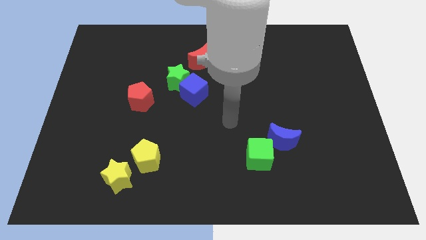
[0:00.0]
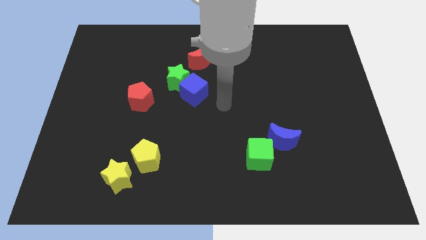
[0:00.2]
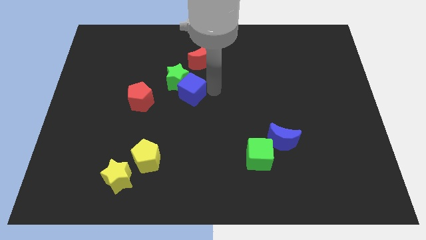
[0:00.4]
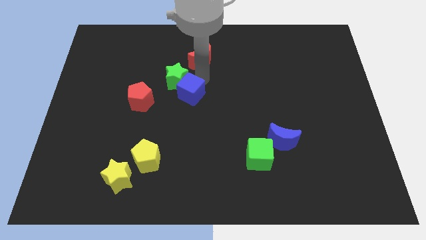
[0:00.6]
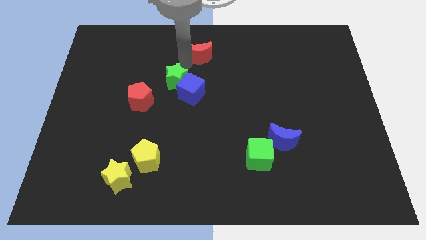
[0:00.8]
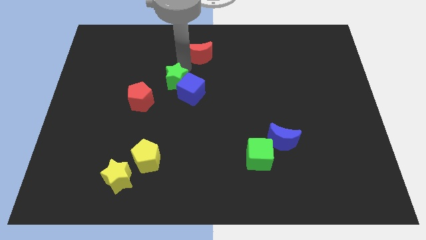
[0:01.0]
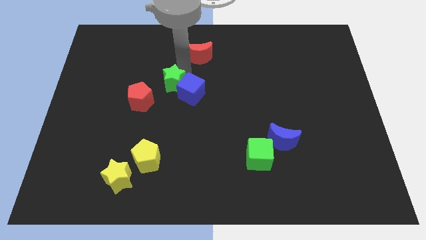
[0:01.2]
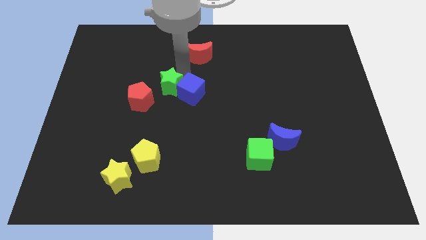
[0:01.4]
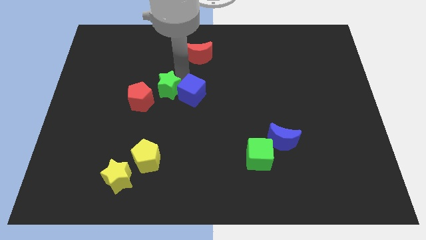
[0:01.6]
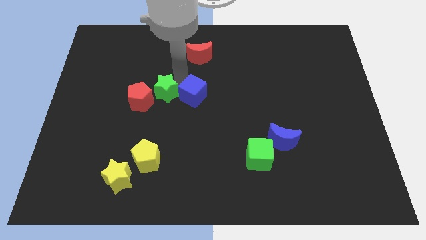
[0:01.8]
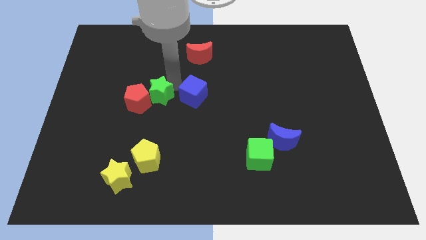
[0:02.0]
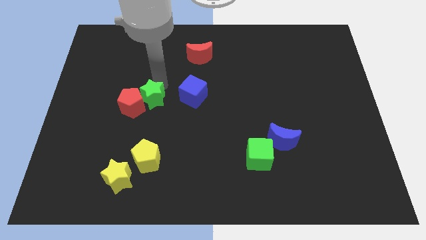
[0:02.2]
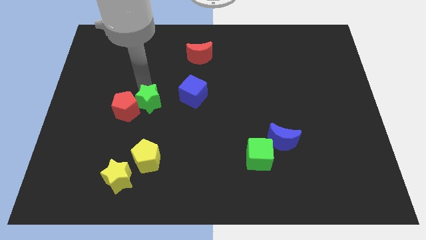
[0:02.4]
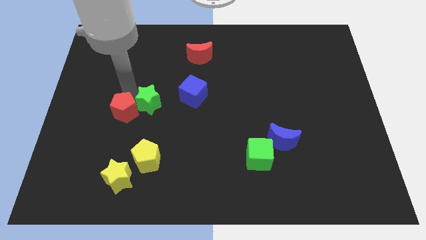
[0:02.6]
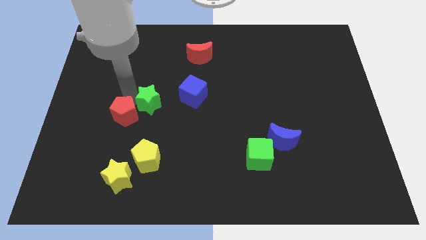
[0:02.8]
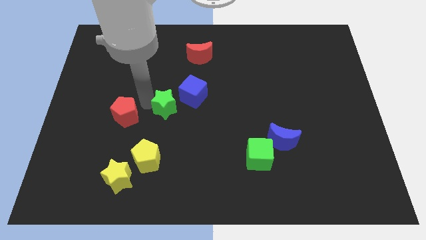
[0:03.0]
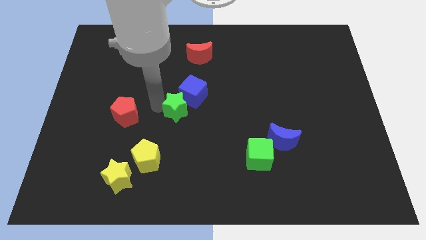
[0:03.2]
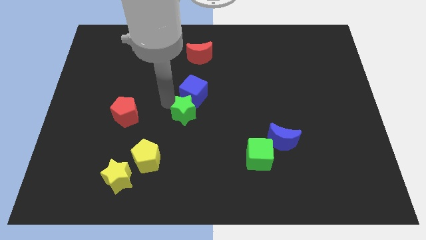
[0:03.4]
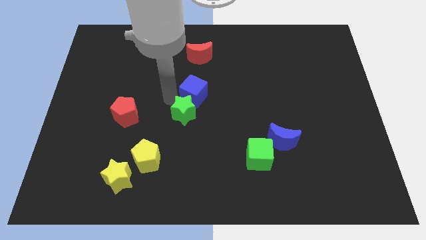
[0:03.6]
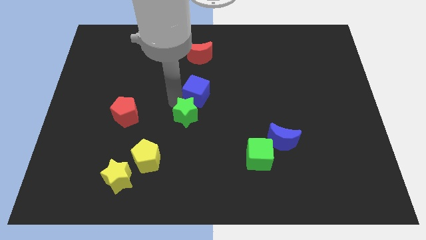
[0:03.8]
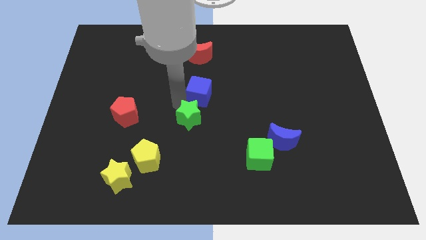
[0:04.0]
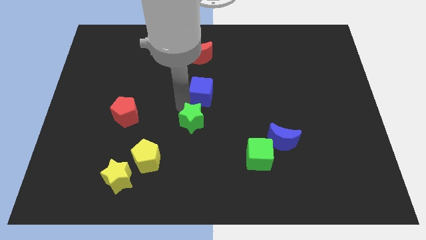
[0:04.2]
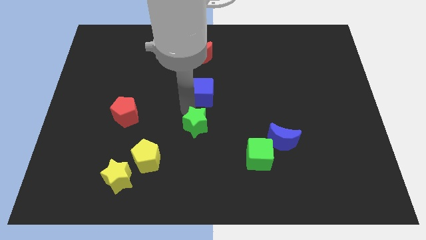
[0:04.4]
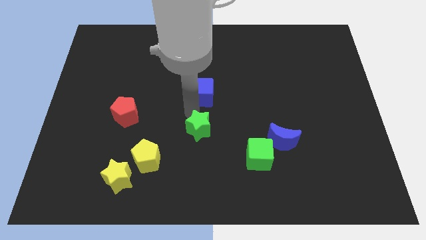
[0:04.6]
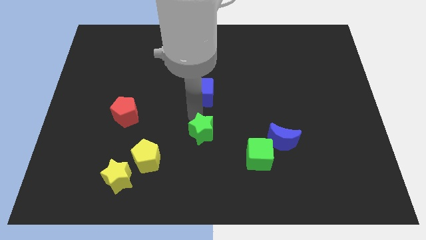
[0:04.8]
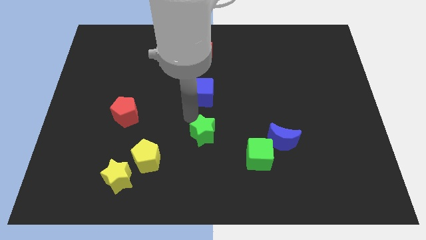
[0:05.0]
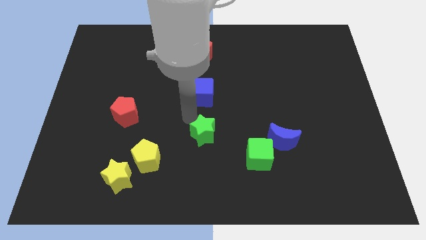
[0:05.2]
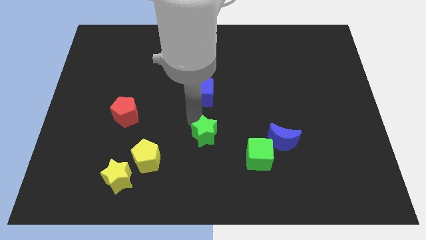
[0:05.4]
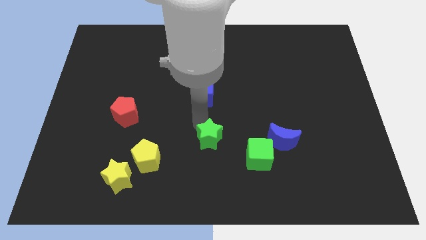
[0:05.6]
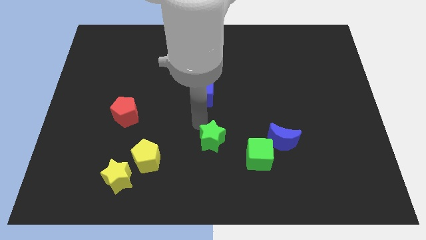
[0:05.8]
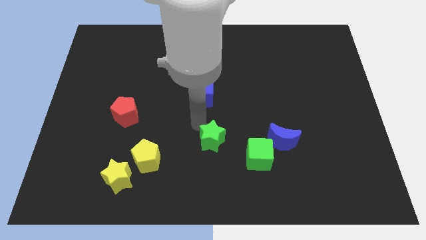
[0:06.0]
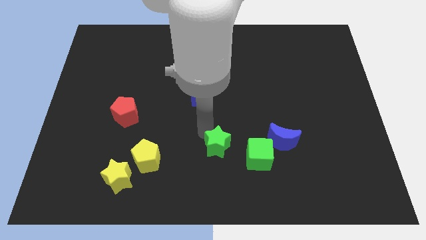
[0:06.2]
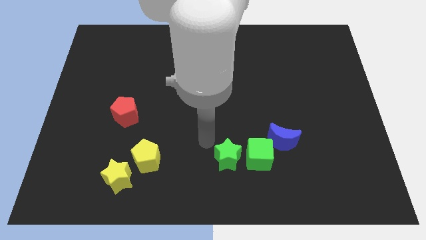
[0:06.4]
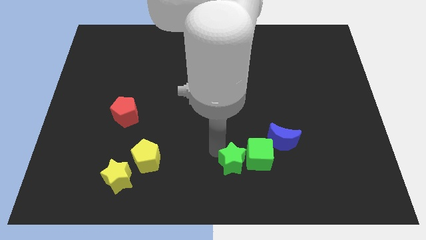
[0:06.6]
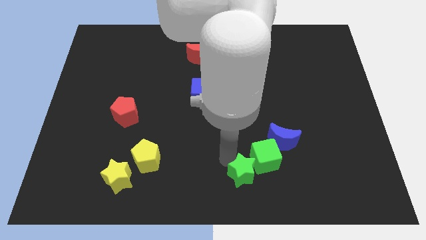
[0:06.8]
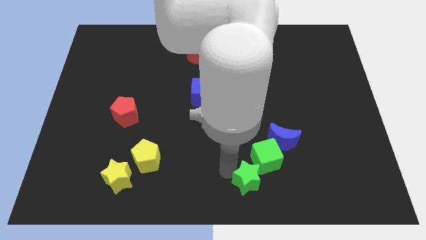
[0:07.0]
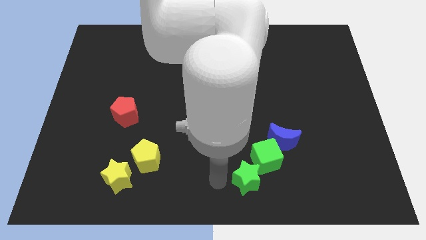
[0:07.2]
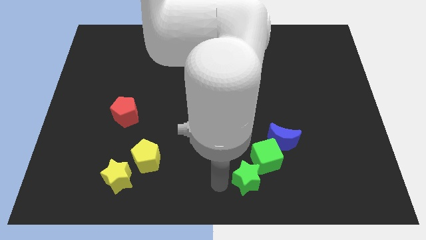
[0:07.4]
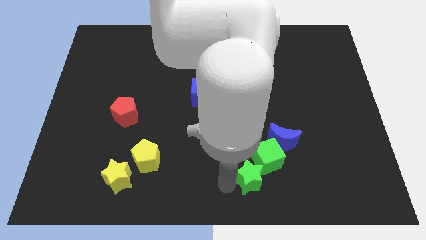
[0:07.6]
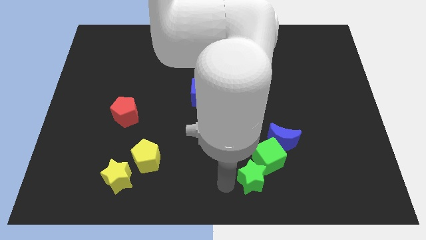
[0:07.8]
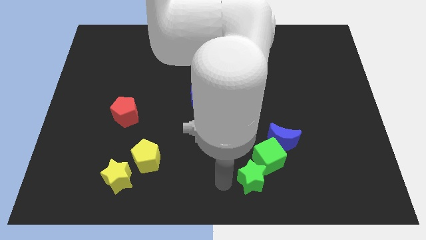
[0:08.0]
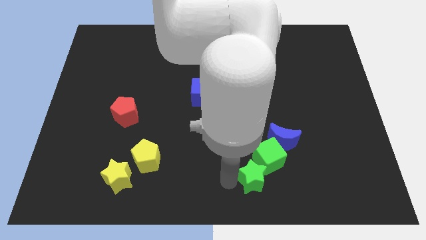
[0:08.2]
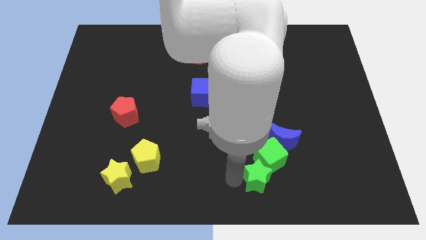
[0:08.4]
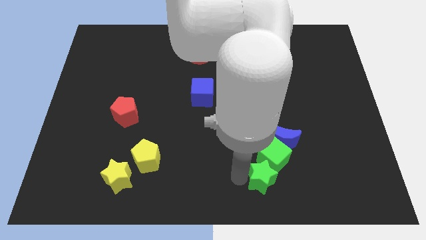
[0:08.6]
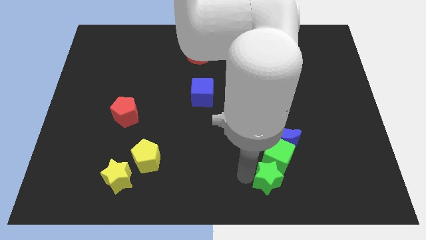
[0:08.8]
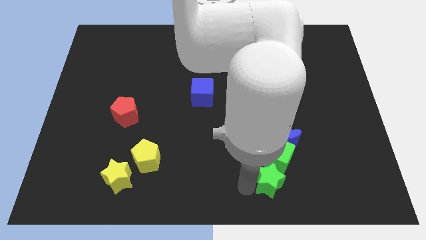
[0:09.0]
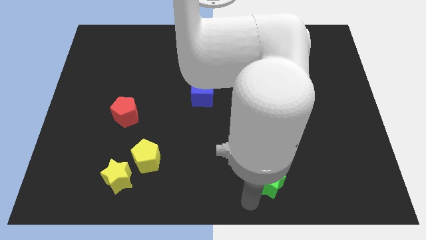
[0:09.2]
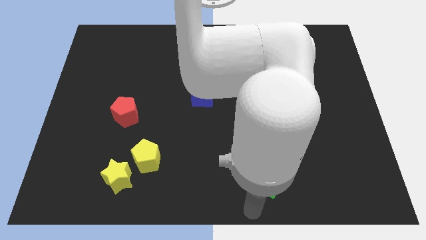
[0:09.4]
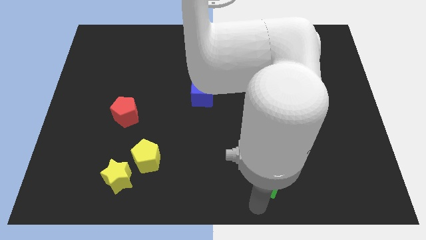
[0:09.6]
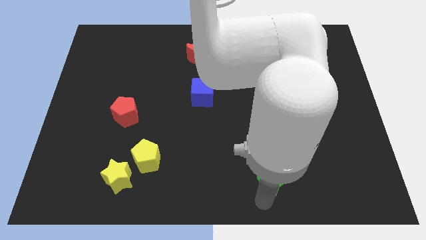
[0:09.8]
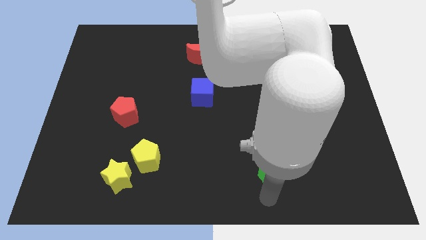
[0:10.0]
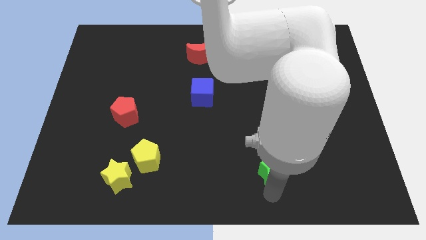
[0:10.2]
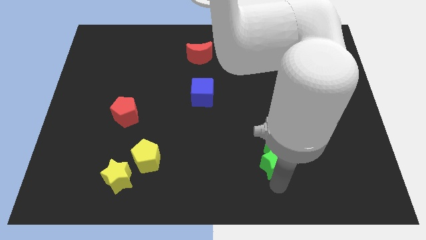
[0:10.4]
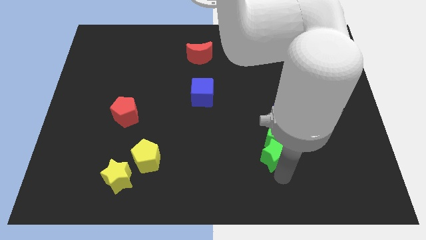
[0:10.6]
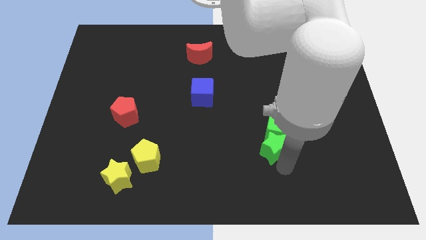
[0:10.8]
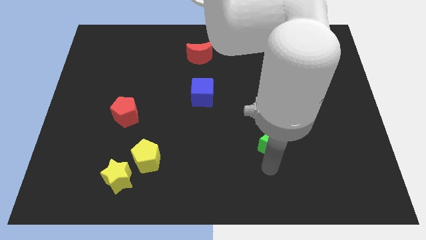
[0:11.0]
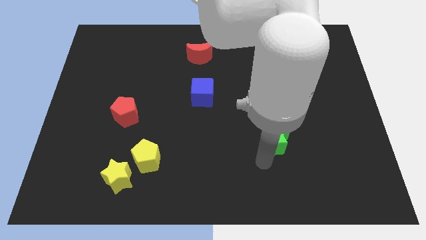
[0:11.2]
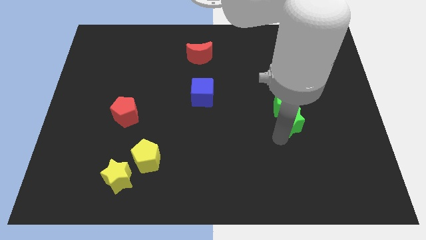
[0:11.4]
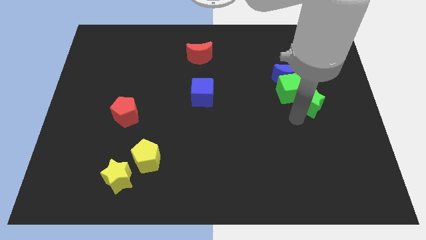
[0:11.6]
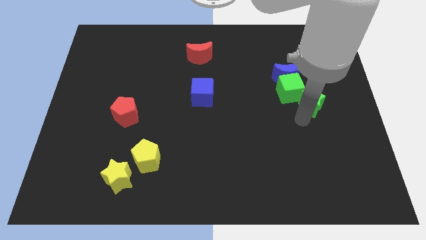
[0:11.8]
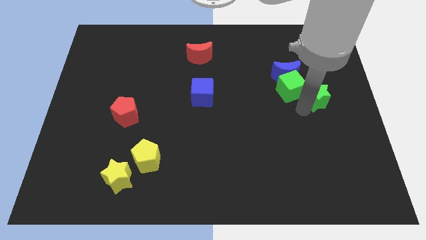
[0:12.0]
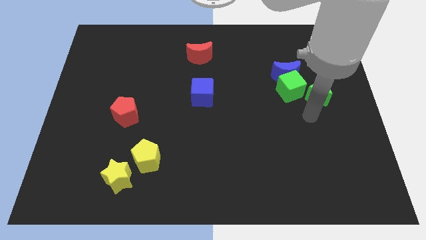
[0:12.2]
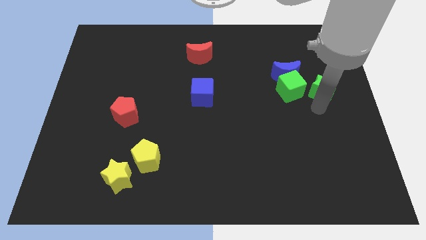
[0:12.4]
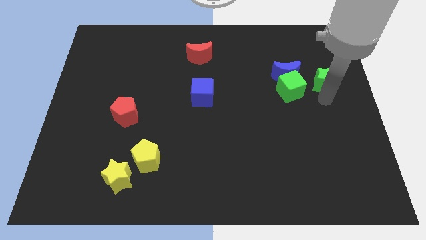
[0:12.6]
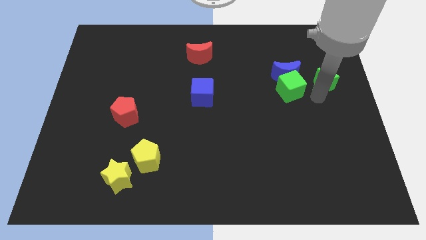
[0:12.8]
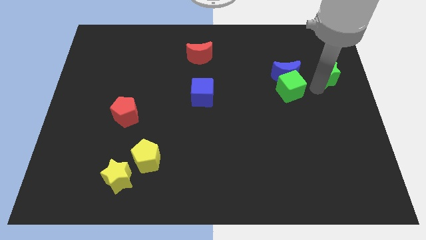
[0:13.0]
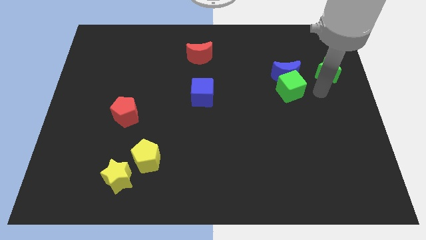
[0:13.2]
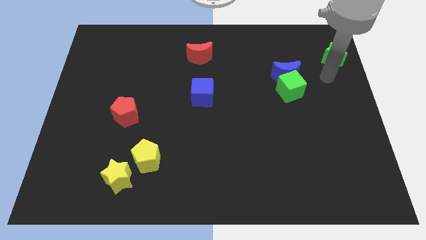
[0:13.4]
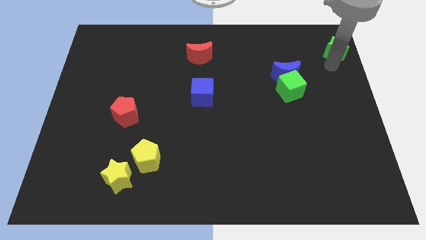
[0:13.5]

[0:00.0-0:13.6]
push the green star to the top right corner
